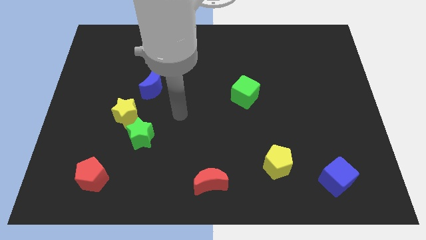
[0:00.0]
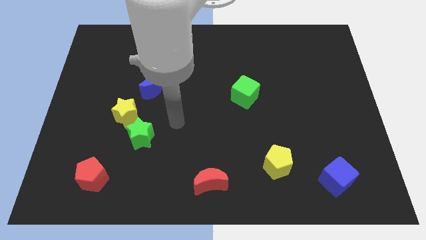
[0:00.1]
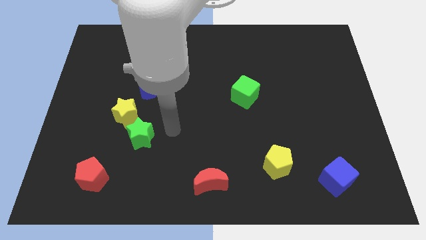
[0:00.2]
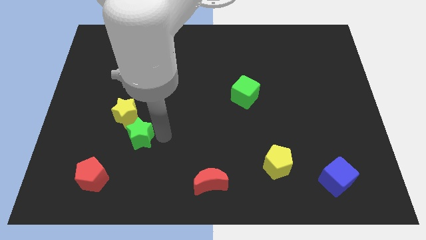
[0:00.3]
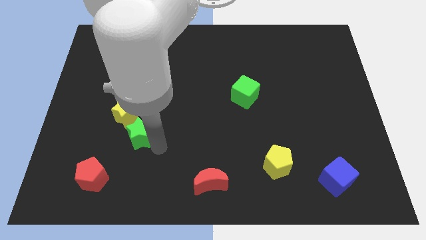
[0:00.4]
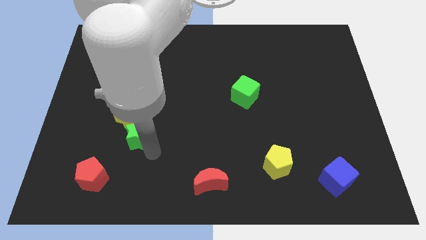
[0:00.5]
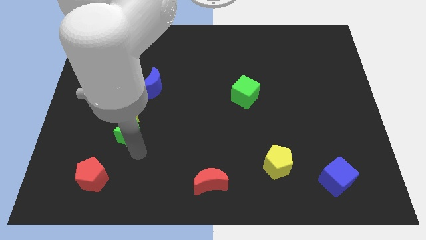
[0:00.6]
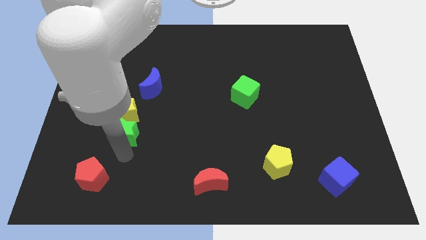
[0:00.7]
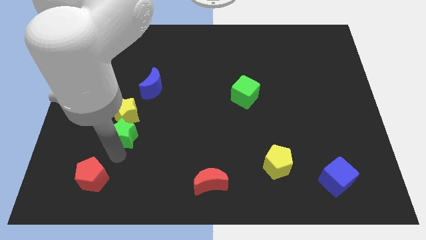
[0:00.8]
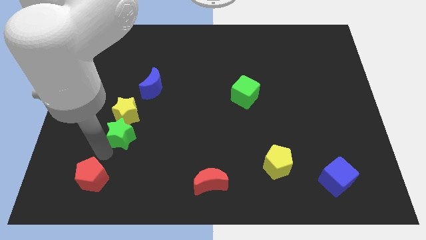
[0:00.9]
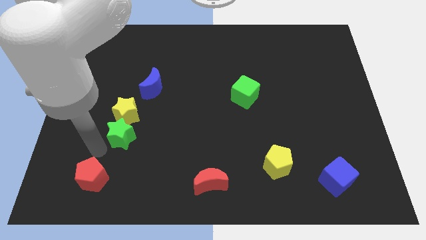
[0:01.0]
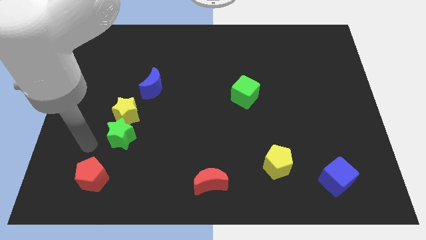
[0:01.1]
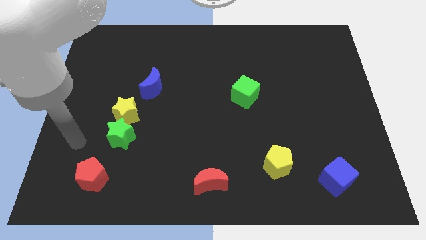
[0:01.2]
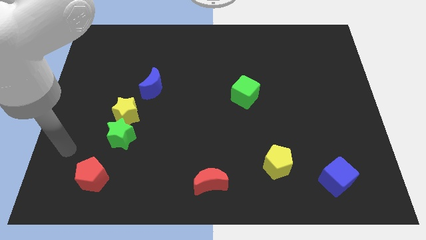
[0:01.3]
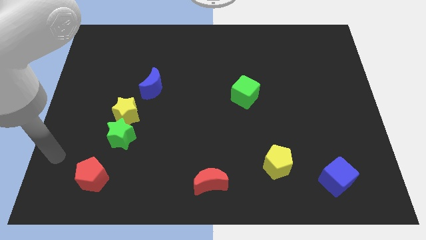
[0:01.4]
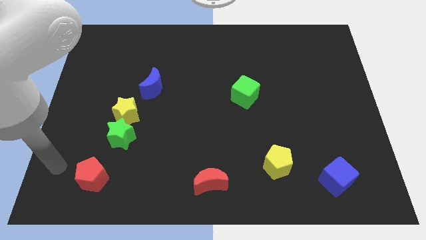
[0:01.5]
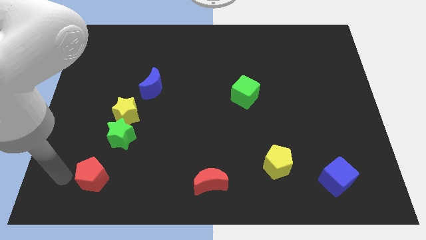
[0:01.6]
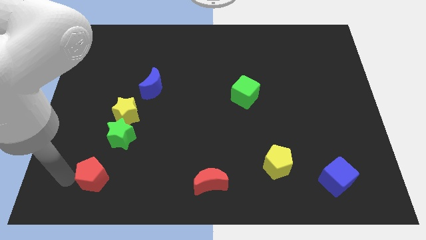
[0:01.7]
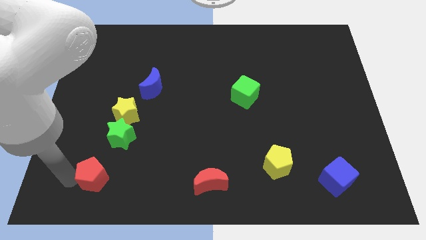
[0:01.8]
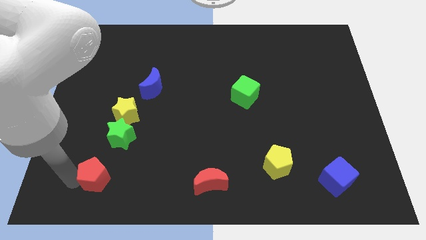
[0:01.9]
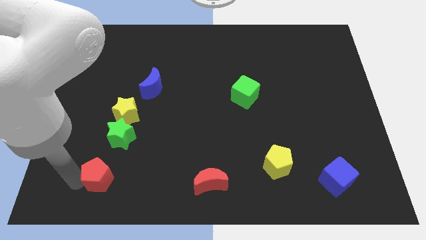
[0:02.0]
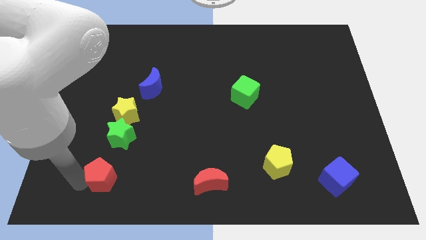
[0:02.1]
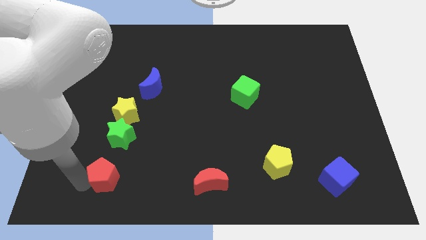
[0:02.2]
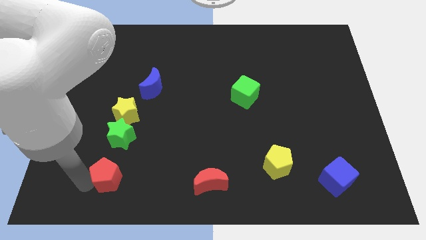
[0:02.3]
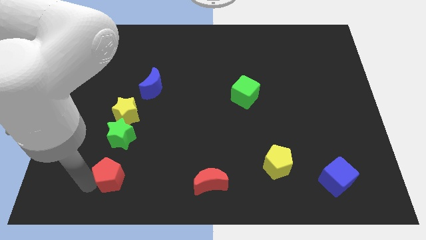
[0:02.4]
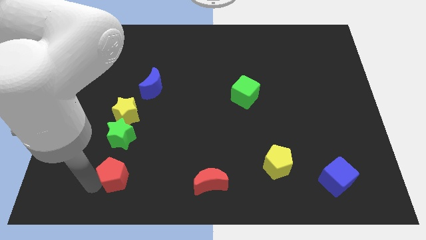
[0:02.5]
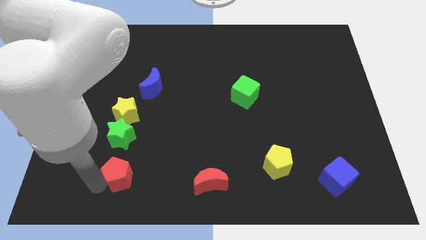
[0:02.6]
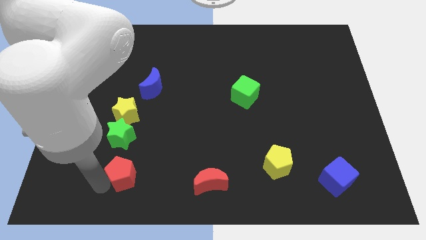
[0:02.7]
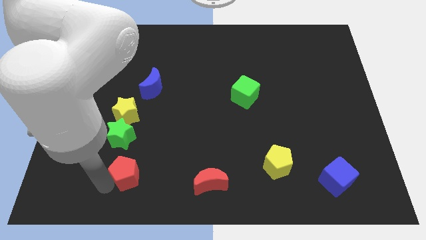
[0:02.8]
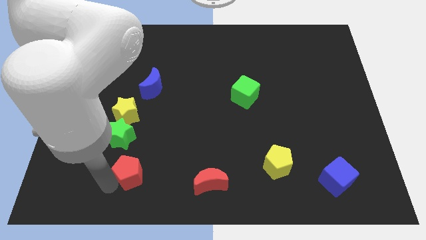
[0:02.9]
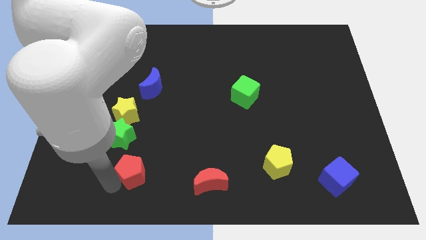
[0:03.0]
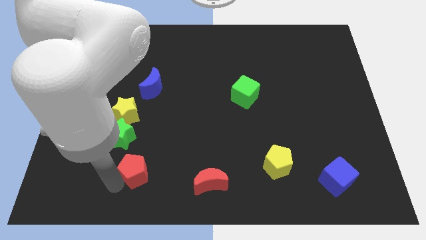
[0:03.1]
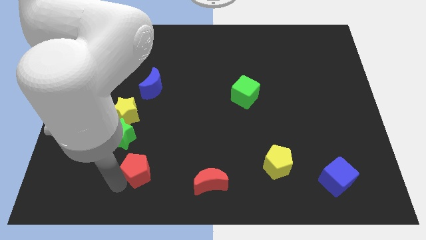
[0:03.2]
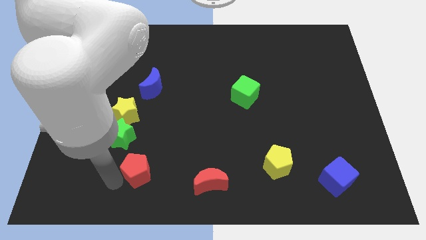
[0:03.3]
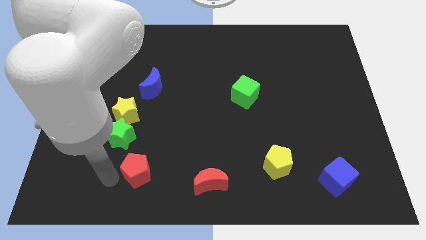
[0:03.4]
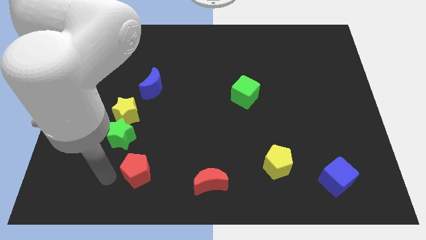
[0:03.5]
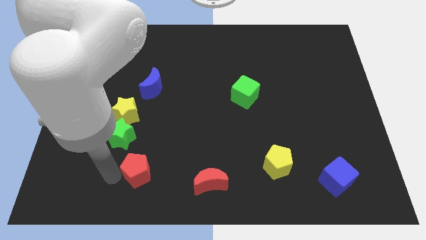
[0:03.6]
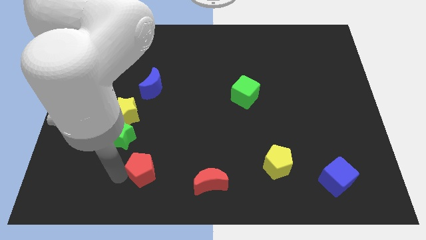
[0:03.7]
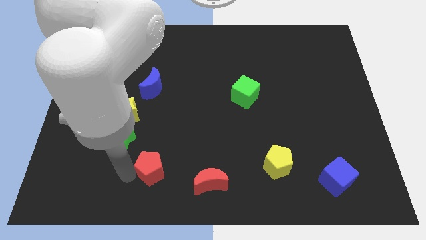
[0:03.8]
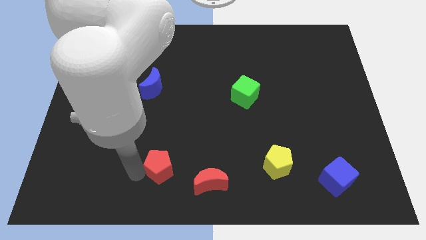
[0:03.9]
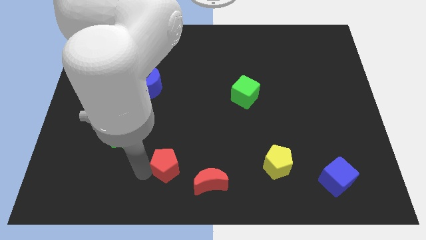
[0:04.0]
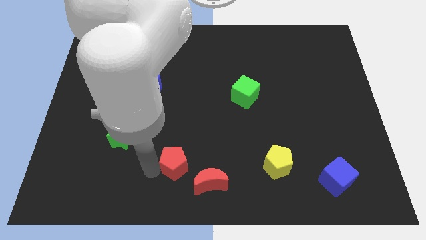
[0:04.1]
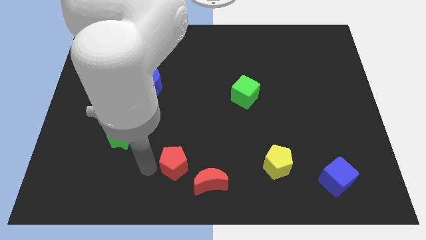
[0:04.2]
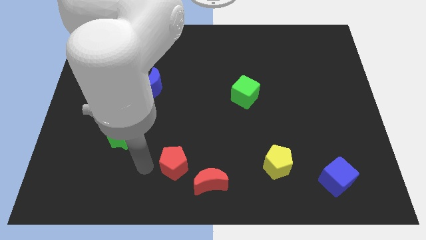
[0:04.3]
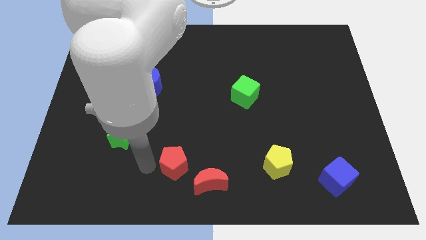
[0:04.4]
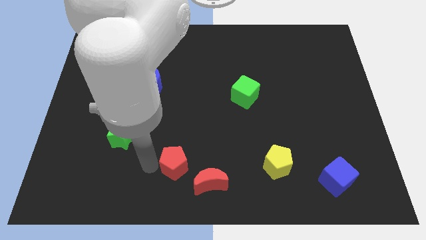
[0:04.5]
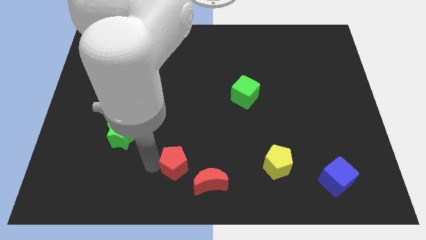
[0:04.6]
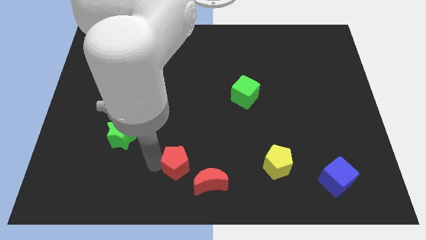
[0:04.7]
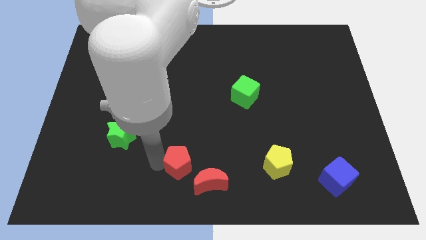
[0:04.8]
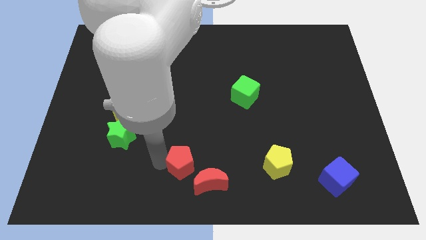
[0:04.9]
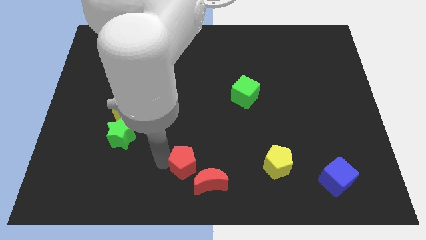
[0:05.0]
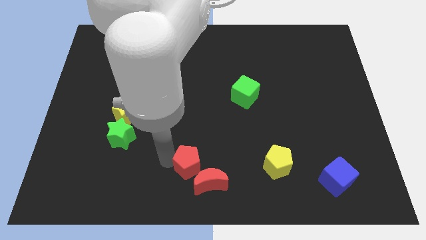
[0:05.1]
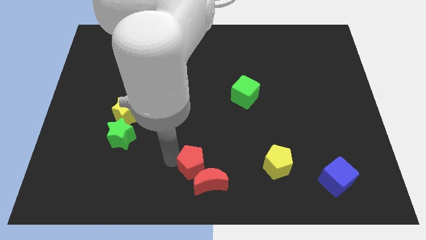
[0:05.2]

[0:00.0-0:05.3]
slide the red pentagon to the right

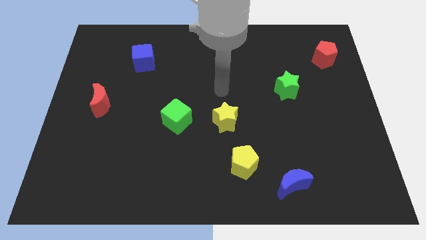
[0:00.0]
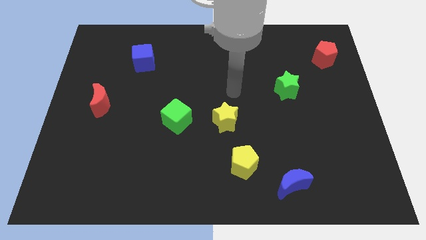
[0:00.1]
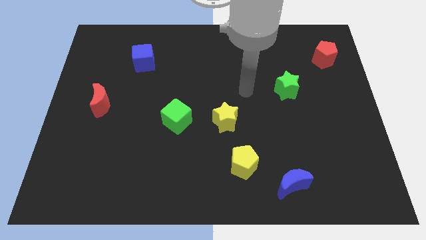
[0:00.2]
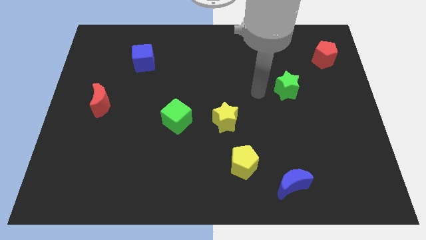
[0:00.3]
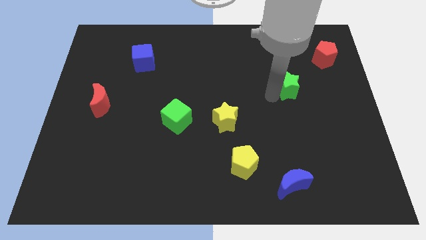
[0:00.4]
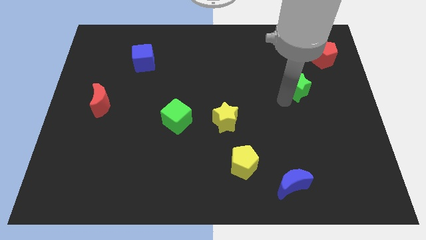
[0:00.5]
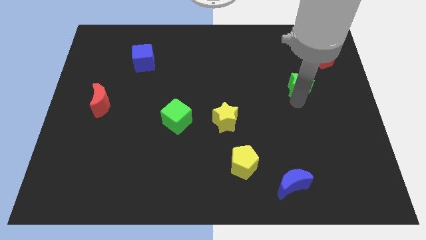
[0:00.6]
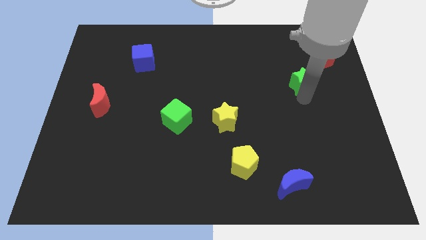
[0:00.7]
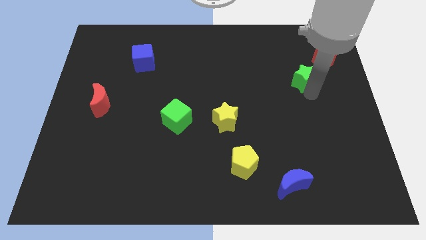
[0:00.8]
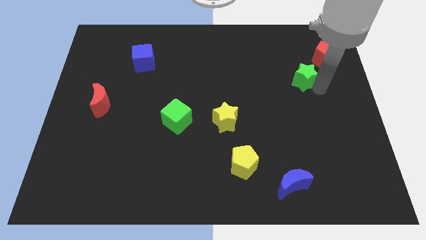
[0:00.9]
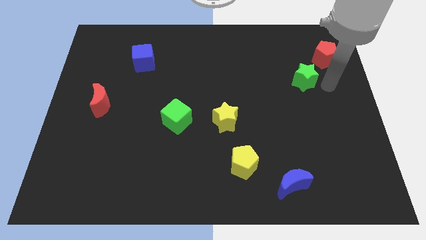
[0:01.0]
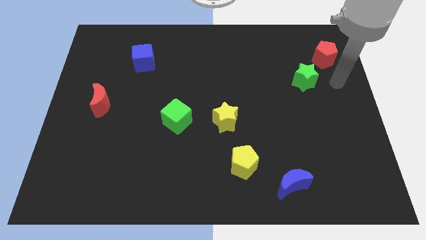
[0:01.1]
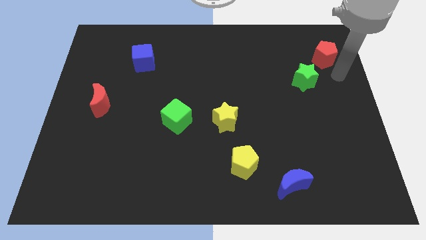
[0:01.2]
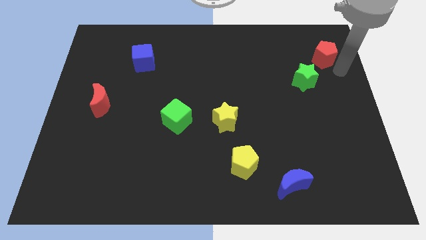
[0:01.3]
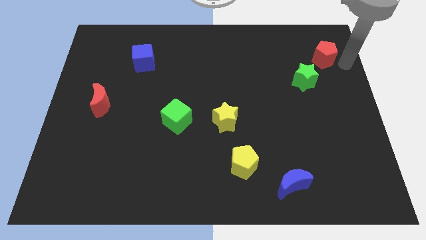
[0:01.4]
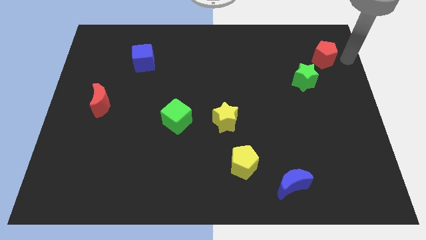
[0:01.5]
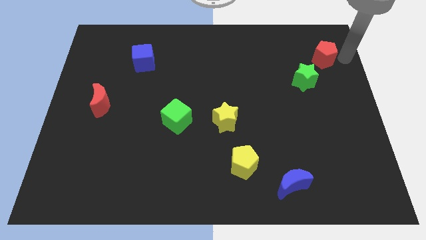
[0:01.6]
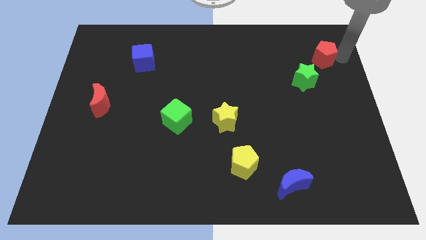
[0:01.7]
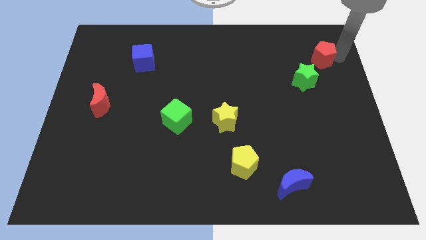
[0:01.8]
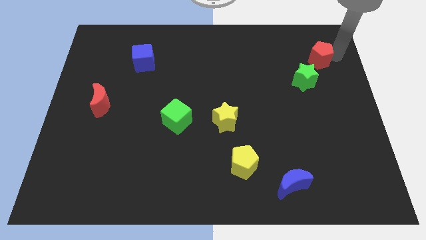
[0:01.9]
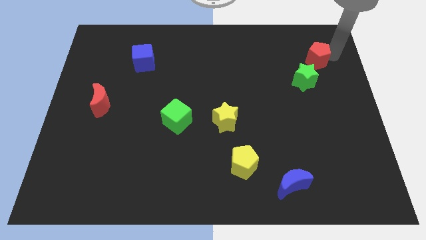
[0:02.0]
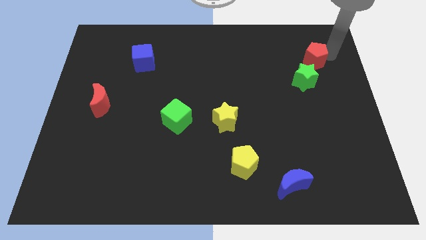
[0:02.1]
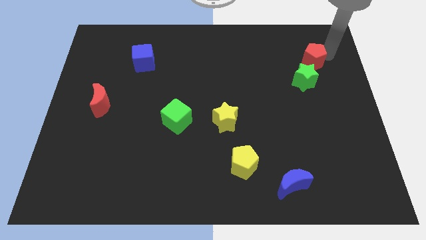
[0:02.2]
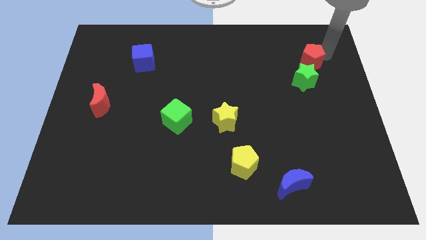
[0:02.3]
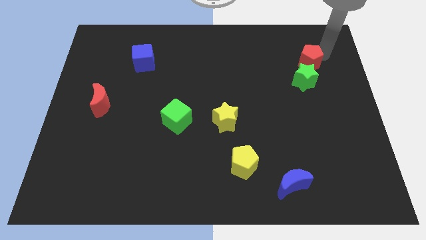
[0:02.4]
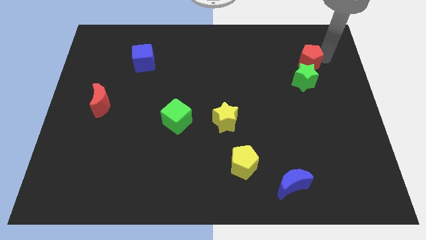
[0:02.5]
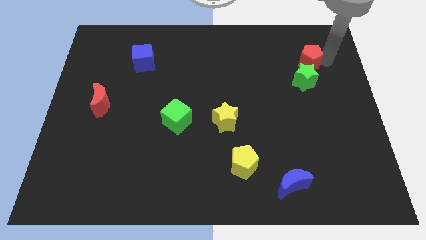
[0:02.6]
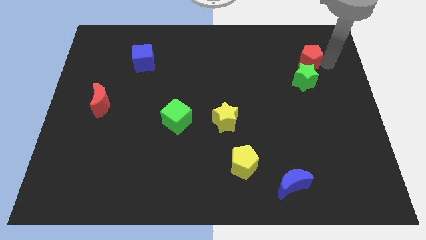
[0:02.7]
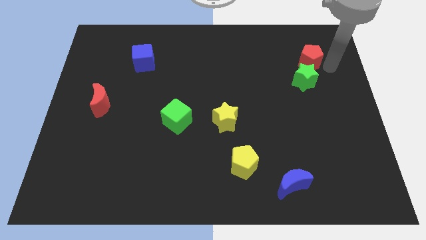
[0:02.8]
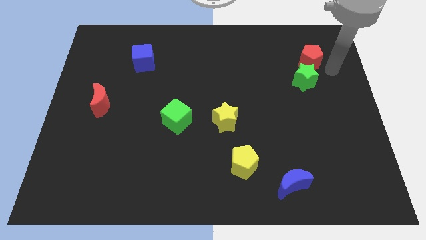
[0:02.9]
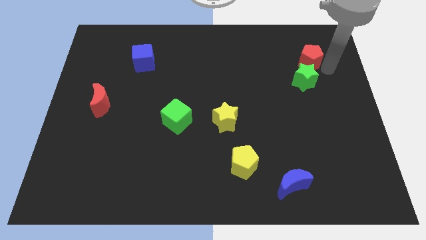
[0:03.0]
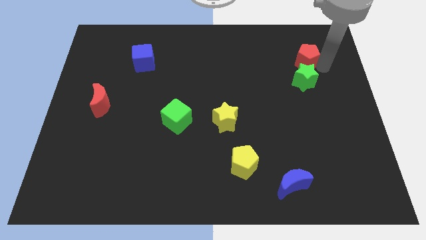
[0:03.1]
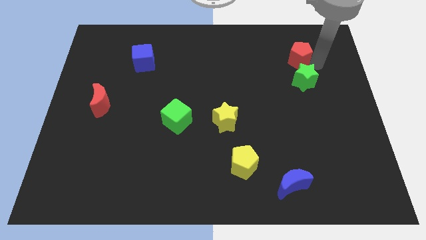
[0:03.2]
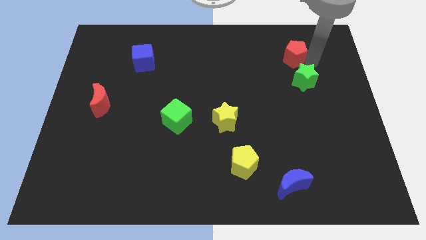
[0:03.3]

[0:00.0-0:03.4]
slide the red pentagon left a bit
